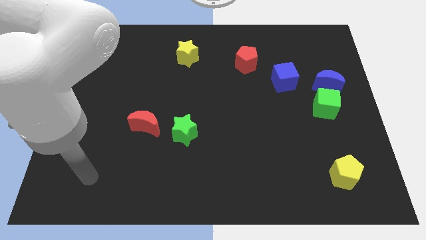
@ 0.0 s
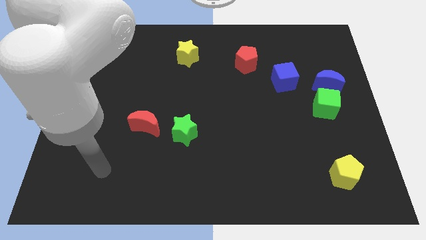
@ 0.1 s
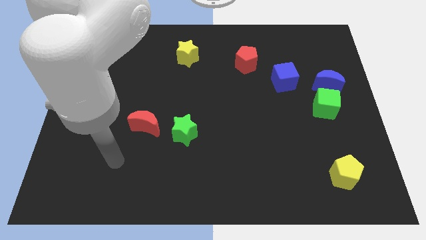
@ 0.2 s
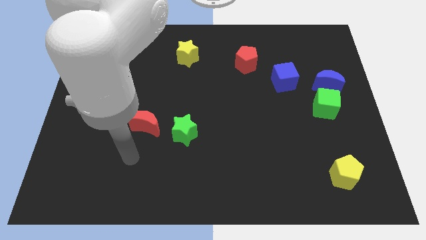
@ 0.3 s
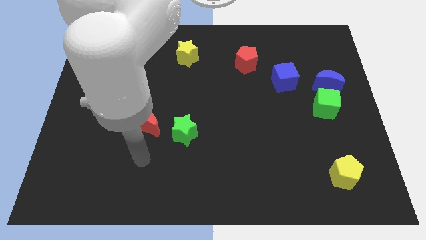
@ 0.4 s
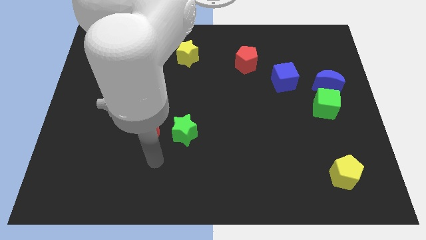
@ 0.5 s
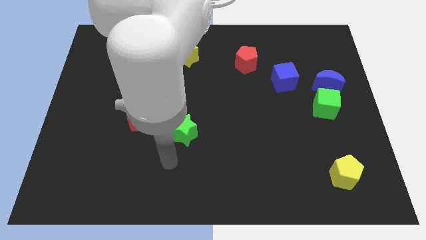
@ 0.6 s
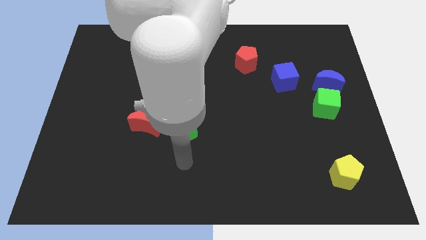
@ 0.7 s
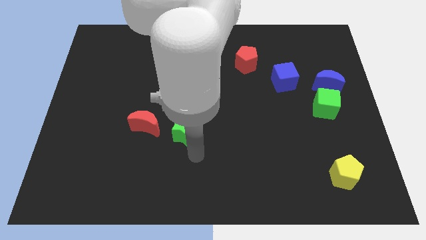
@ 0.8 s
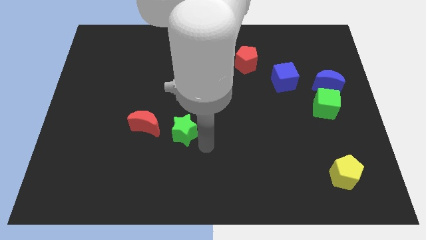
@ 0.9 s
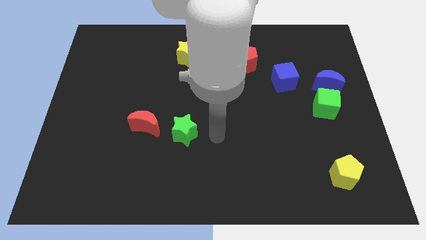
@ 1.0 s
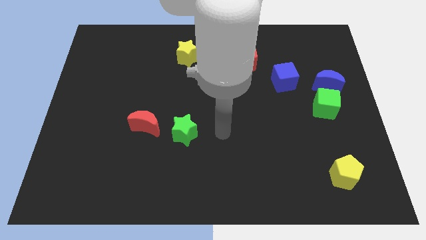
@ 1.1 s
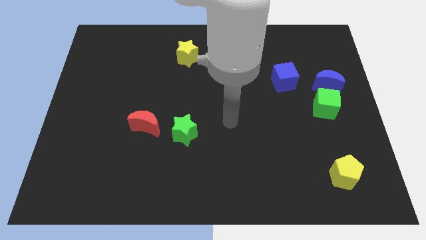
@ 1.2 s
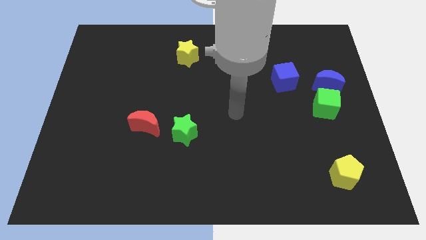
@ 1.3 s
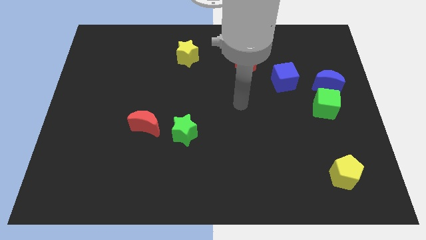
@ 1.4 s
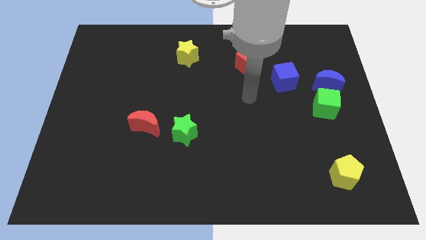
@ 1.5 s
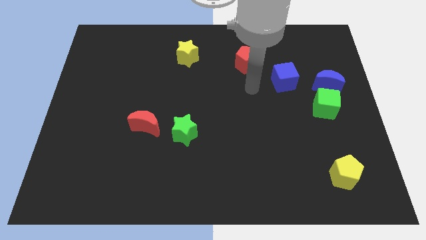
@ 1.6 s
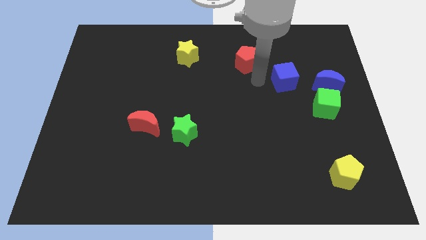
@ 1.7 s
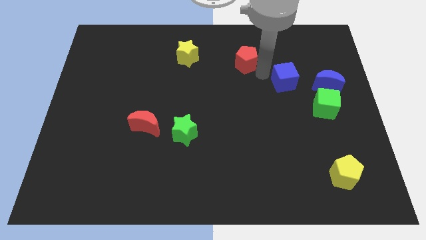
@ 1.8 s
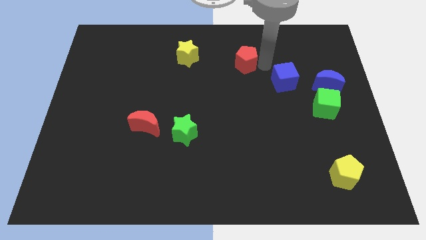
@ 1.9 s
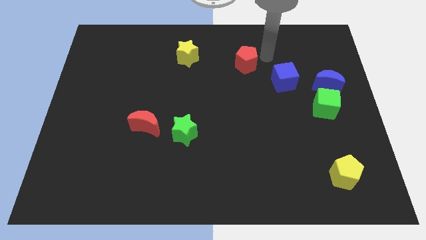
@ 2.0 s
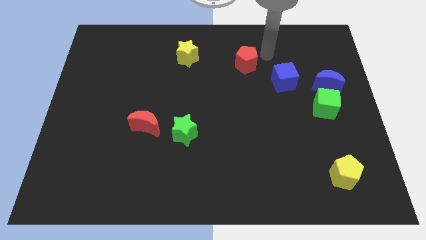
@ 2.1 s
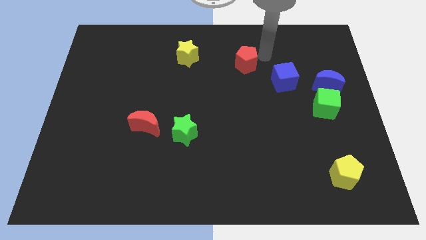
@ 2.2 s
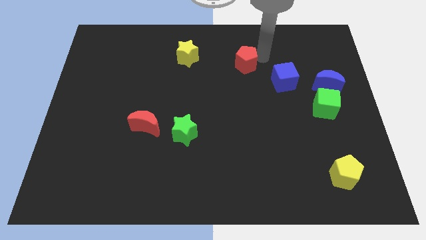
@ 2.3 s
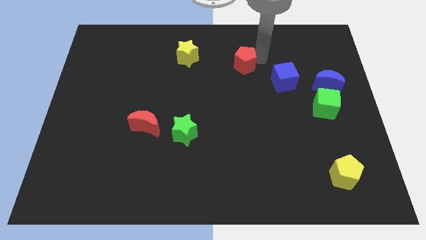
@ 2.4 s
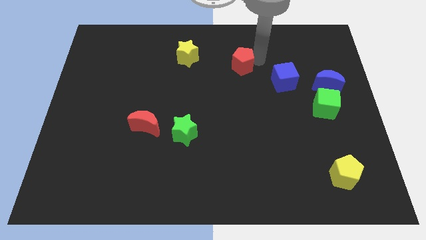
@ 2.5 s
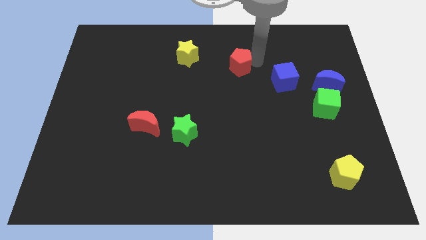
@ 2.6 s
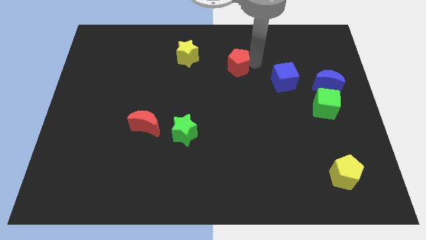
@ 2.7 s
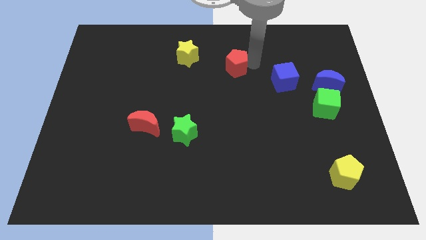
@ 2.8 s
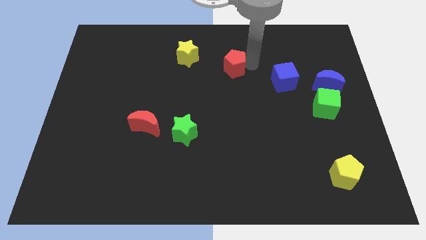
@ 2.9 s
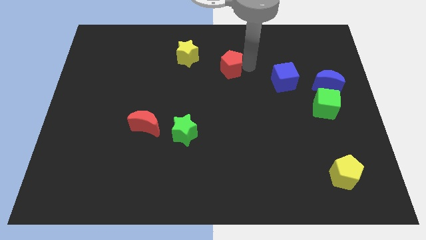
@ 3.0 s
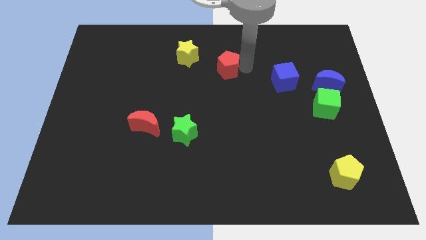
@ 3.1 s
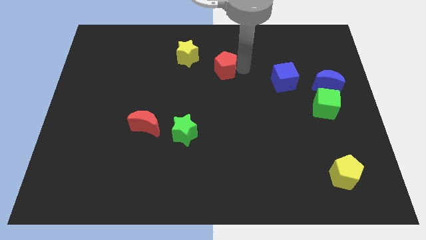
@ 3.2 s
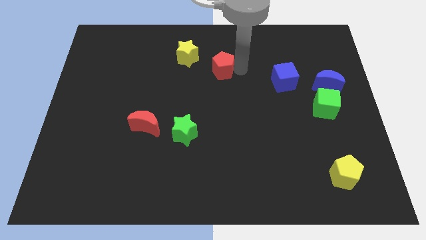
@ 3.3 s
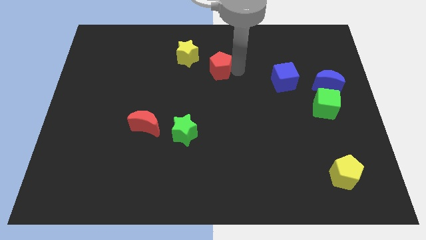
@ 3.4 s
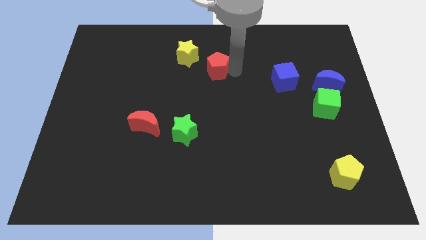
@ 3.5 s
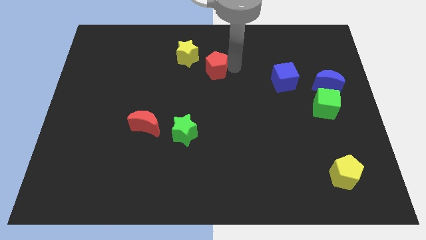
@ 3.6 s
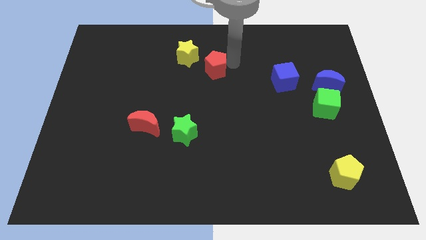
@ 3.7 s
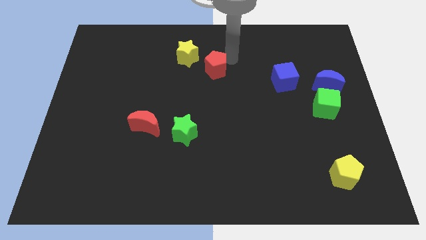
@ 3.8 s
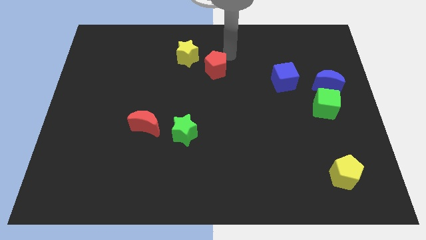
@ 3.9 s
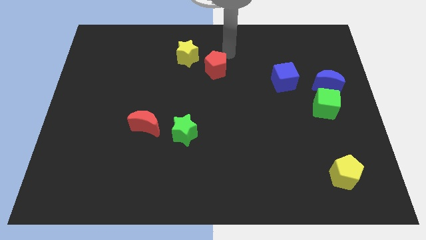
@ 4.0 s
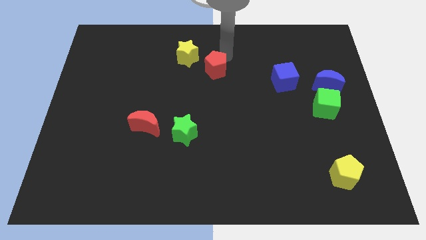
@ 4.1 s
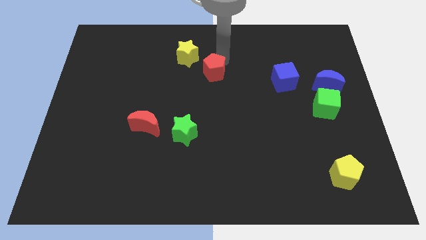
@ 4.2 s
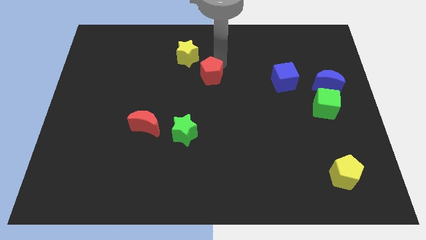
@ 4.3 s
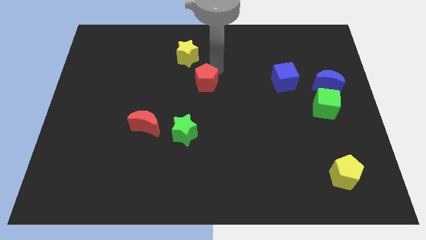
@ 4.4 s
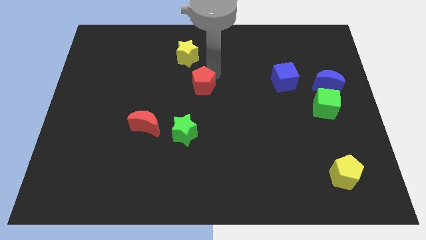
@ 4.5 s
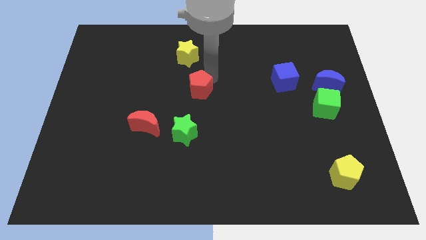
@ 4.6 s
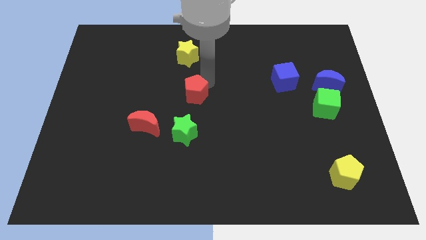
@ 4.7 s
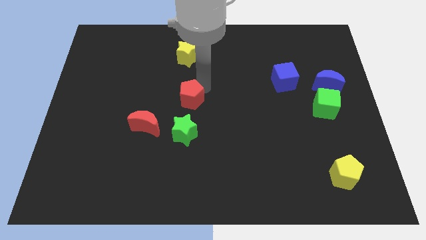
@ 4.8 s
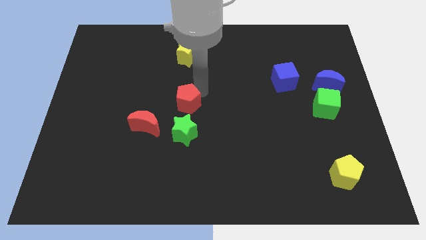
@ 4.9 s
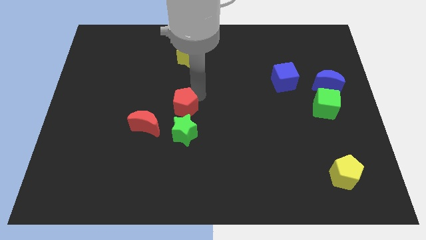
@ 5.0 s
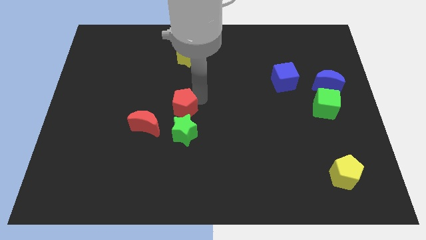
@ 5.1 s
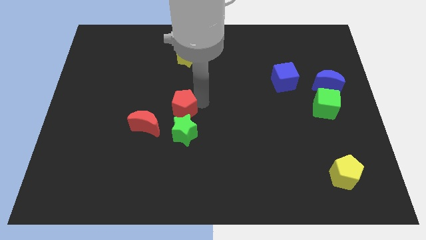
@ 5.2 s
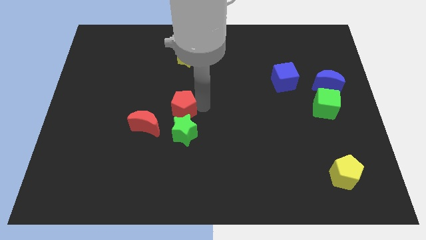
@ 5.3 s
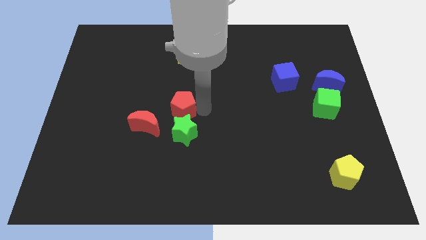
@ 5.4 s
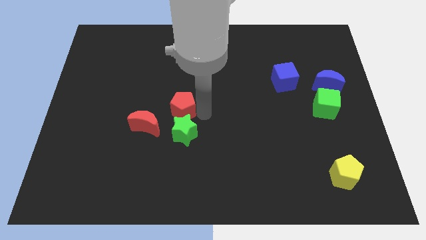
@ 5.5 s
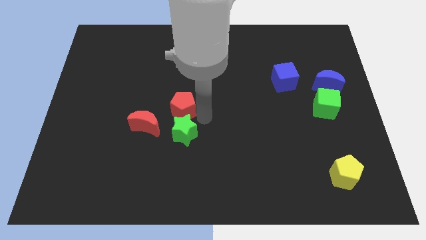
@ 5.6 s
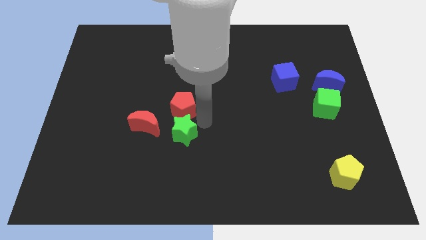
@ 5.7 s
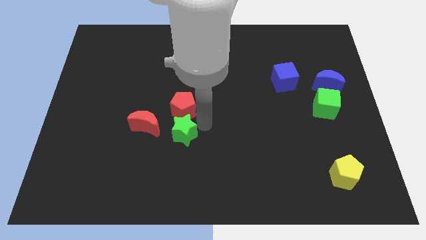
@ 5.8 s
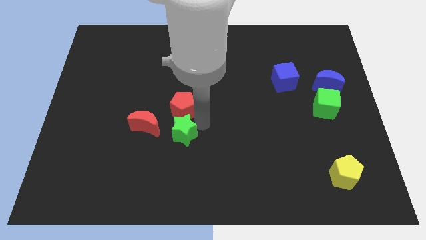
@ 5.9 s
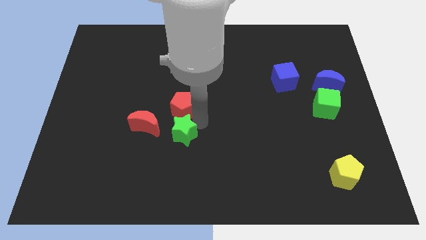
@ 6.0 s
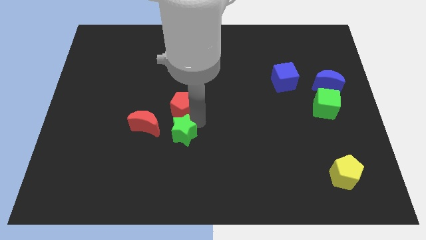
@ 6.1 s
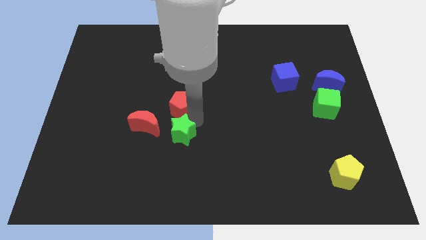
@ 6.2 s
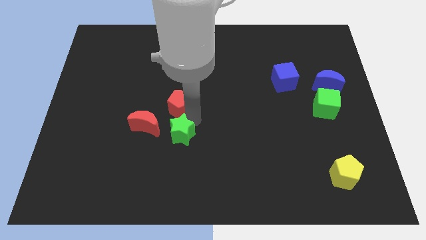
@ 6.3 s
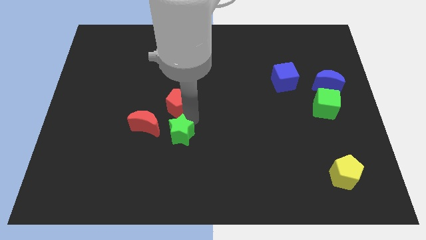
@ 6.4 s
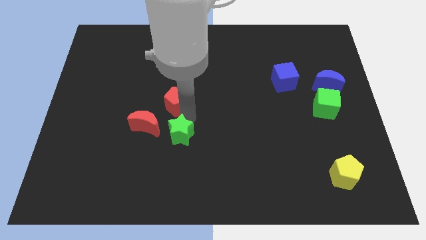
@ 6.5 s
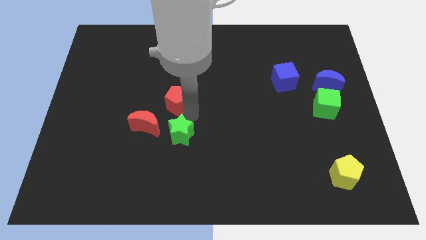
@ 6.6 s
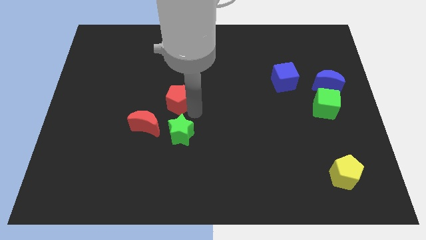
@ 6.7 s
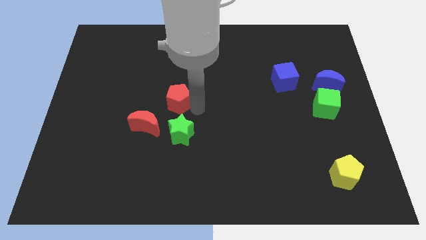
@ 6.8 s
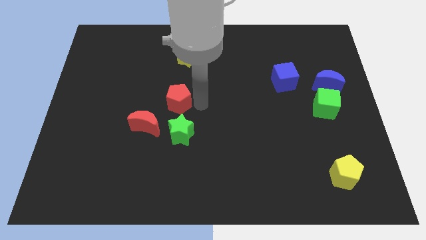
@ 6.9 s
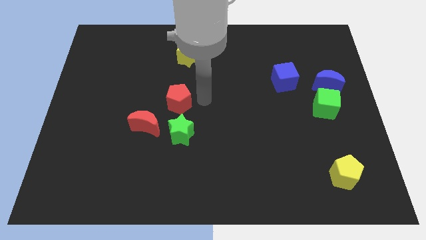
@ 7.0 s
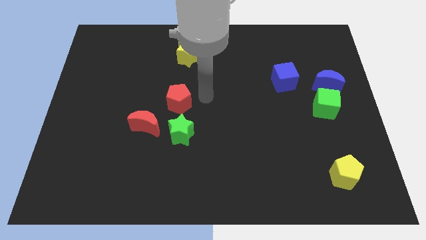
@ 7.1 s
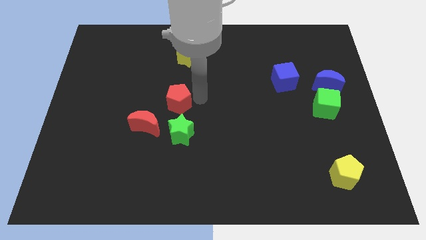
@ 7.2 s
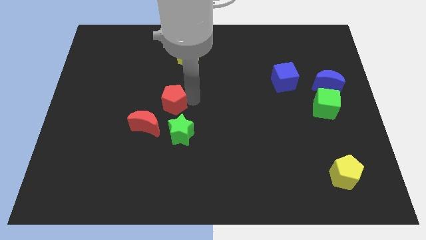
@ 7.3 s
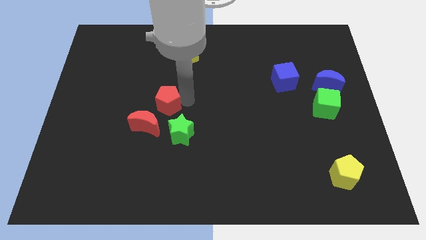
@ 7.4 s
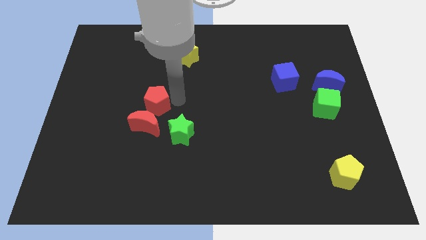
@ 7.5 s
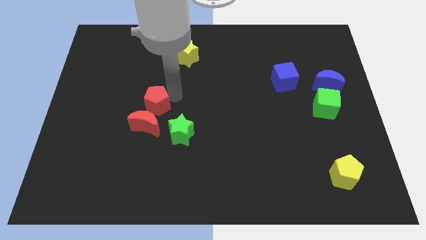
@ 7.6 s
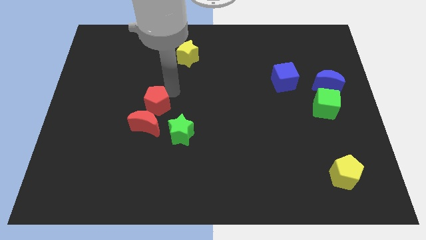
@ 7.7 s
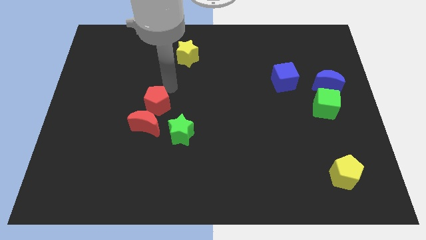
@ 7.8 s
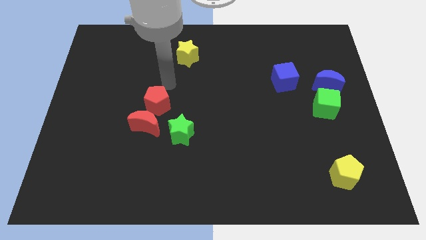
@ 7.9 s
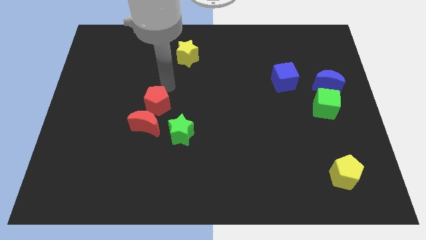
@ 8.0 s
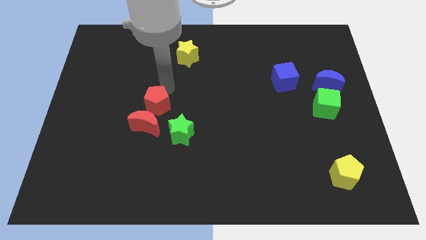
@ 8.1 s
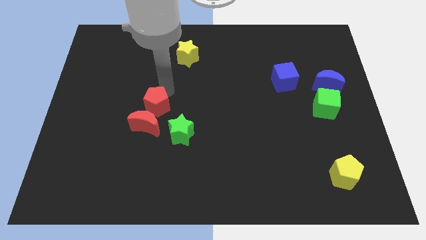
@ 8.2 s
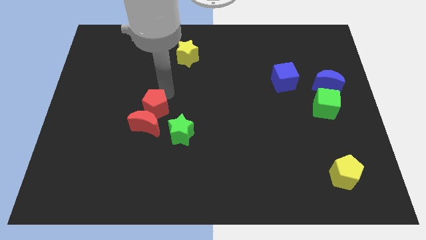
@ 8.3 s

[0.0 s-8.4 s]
slide the red pentagon to the red moon
